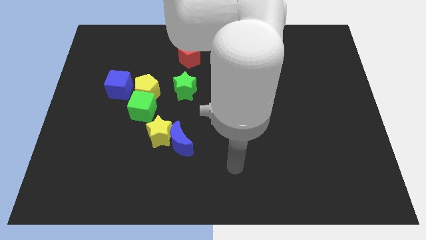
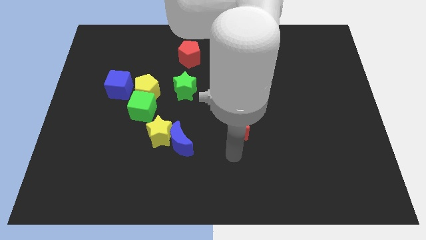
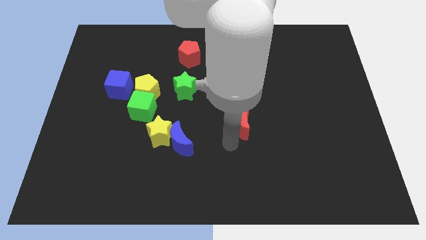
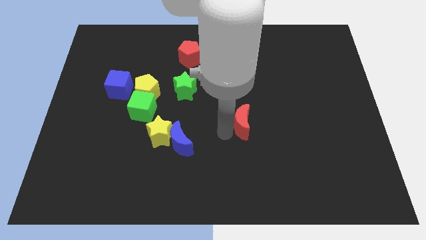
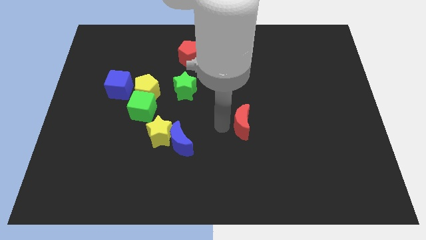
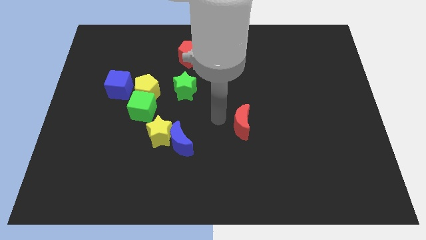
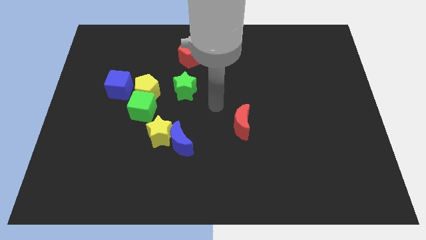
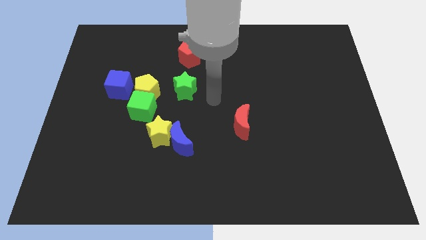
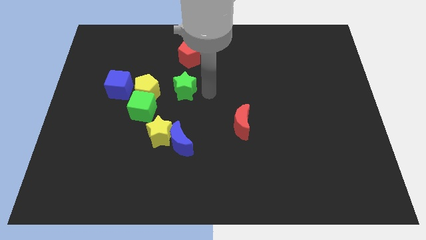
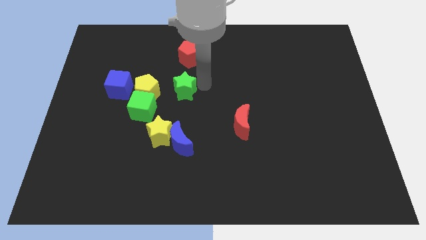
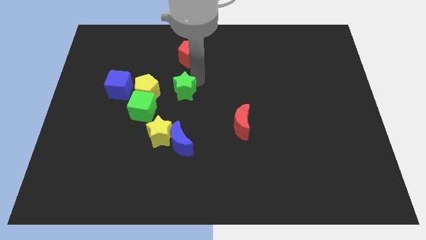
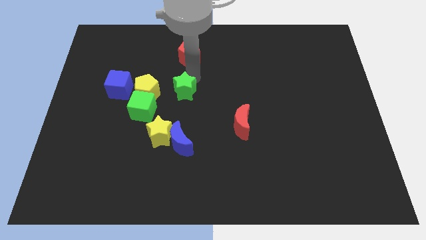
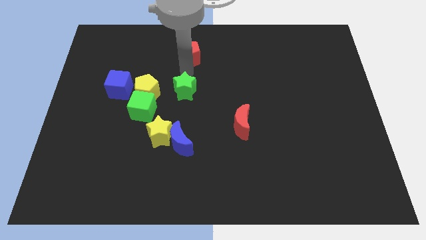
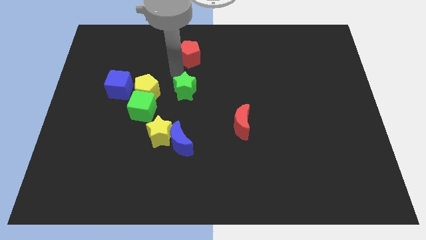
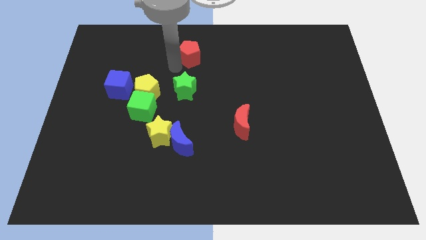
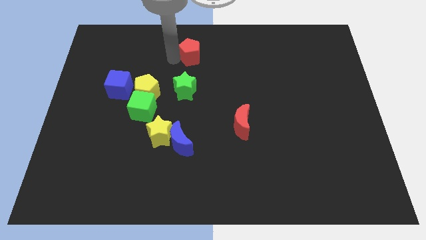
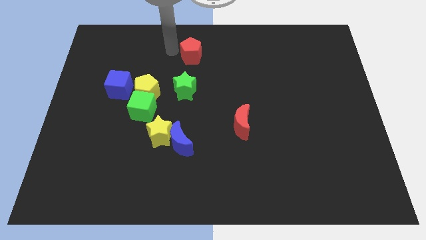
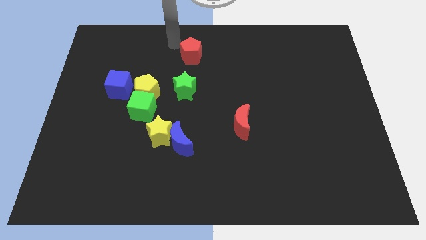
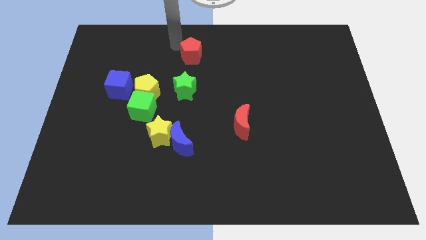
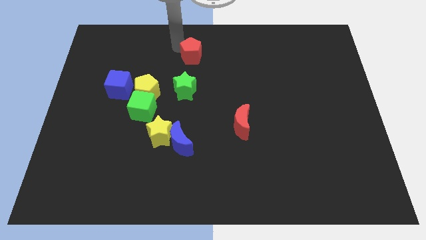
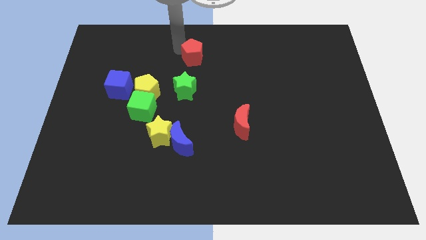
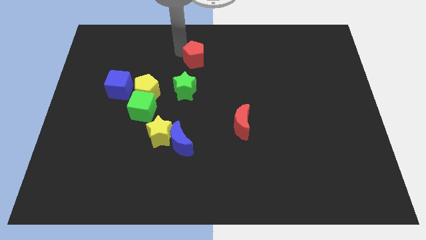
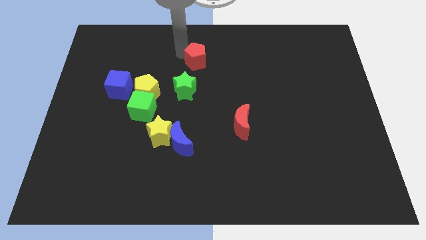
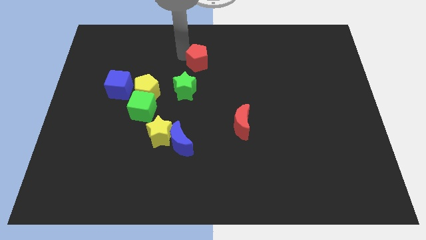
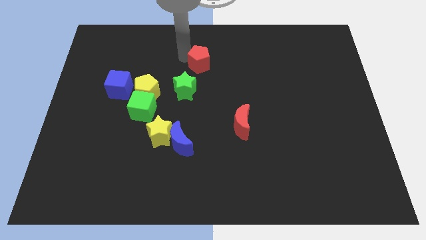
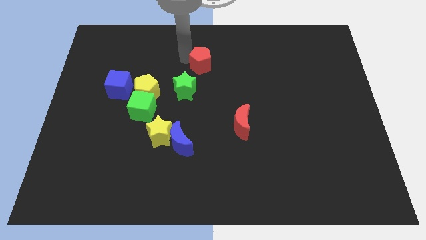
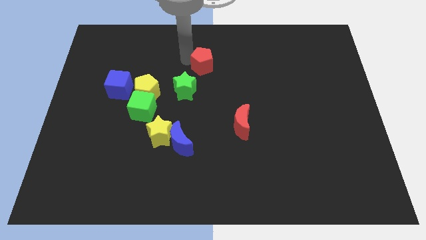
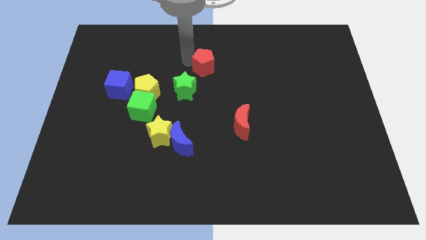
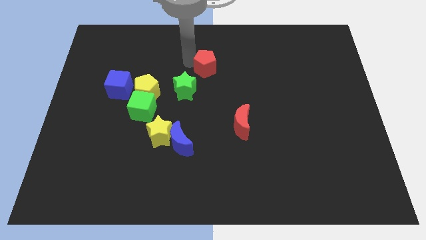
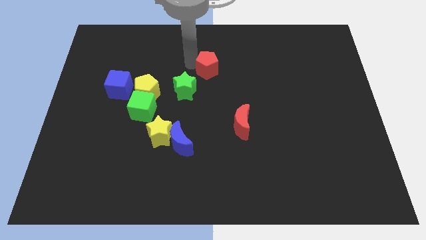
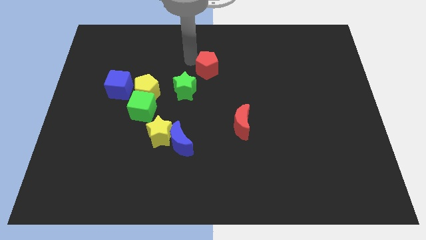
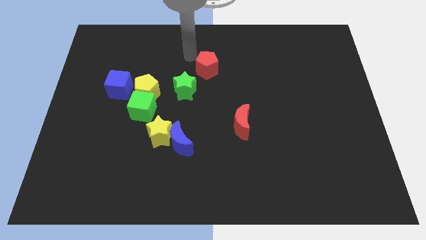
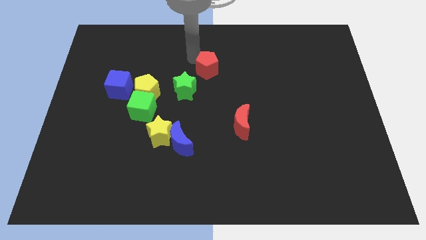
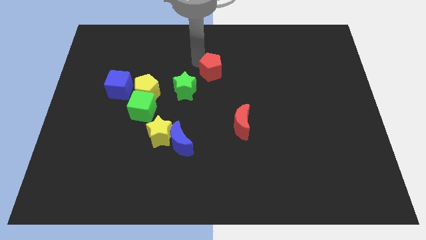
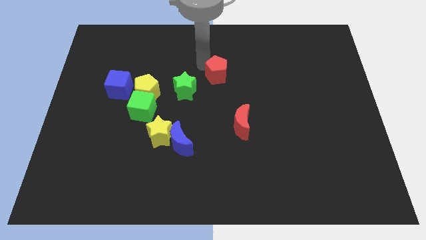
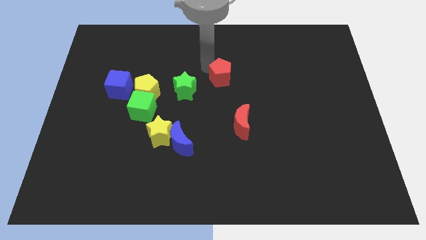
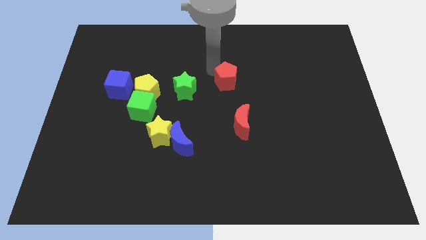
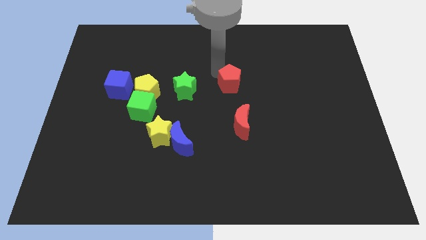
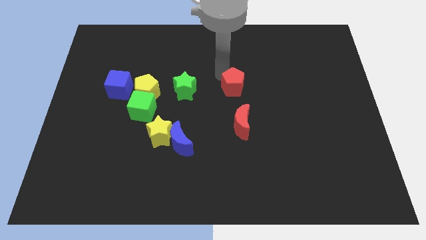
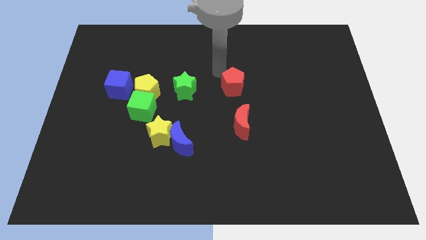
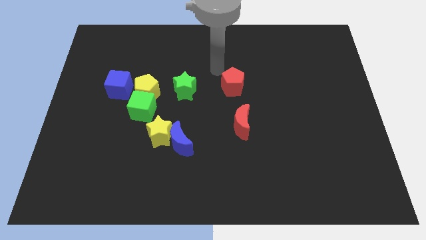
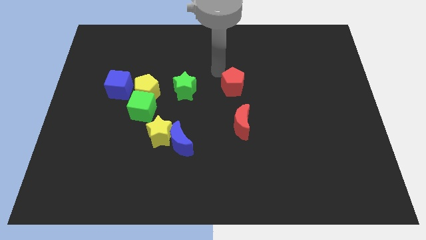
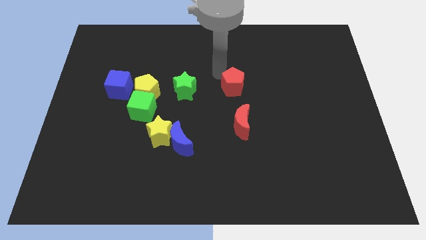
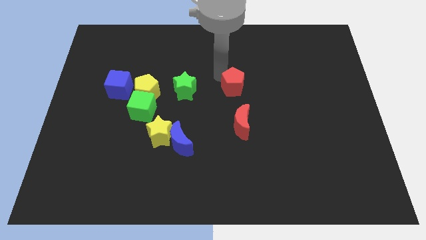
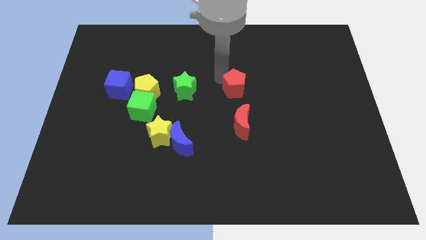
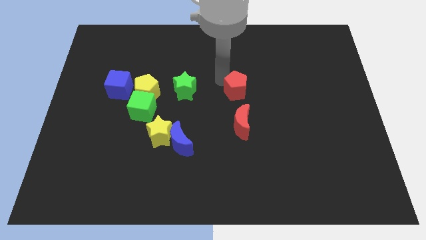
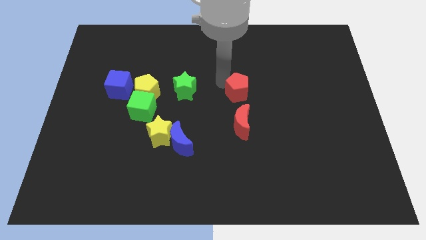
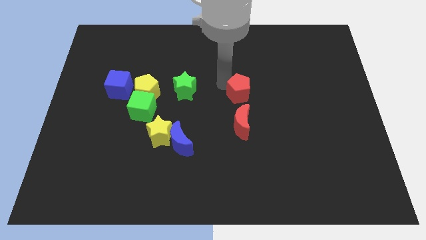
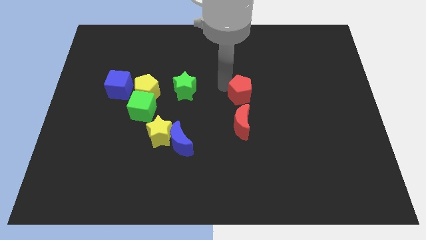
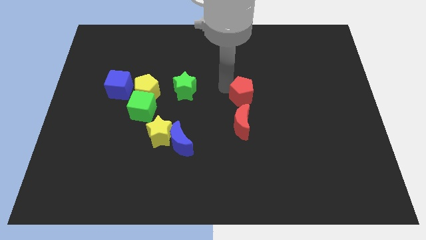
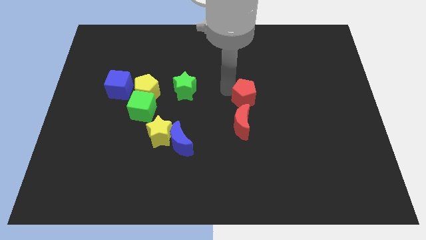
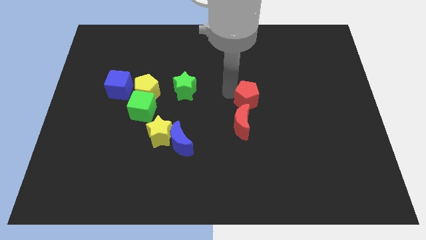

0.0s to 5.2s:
move the red pentagon downwards and right diagonally

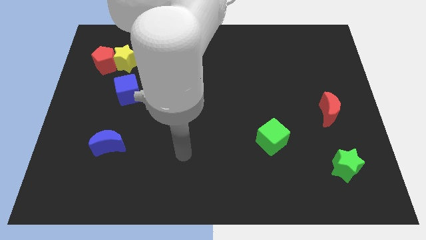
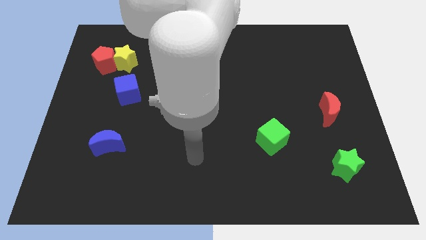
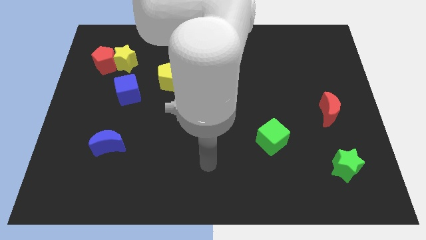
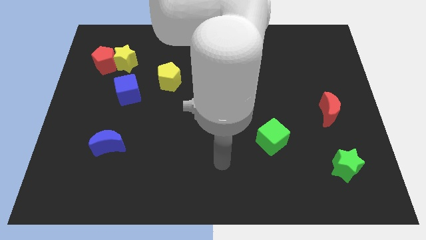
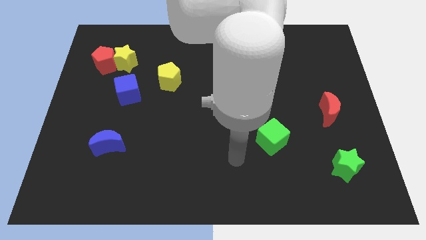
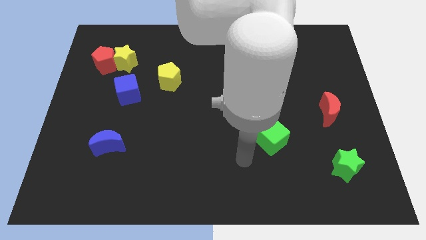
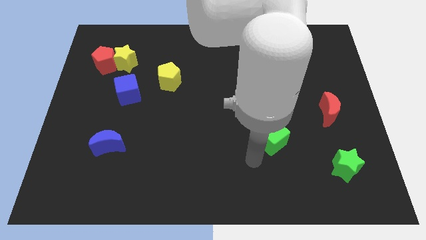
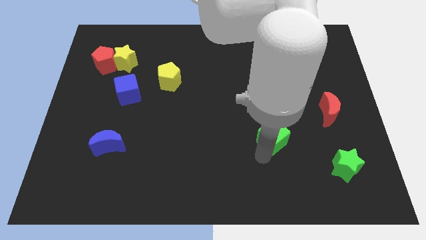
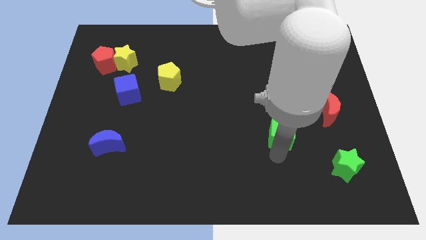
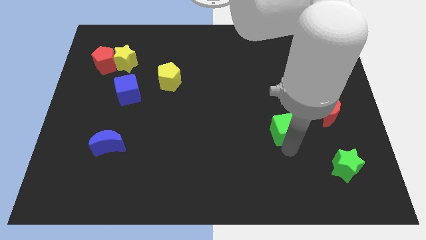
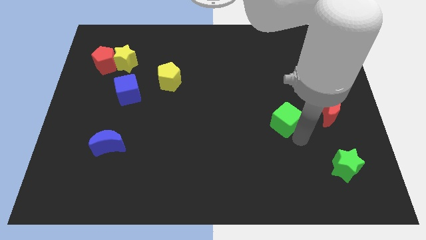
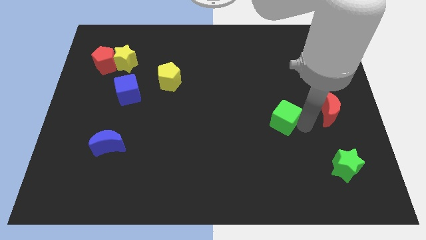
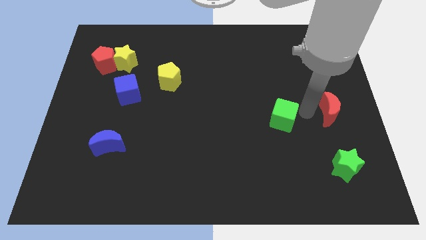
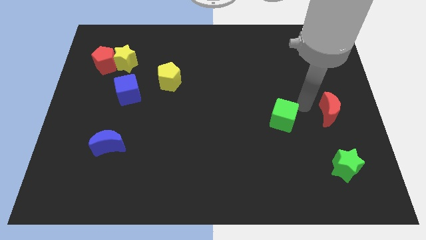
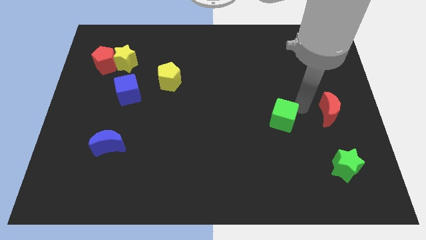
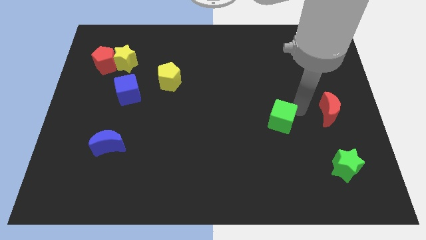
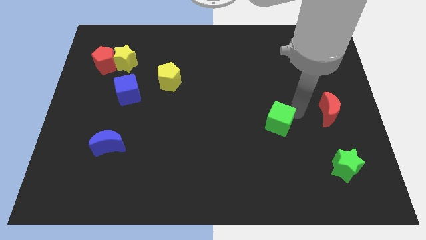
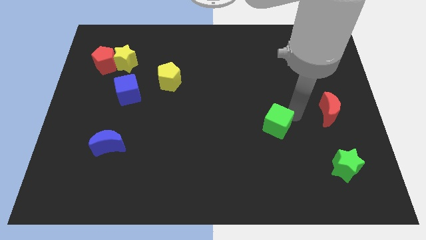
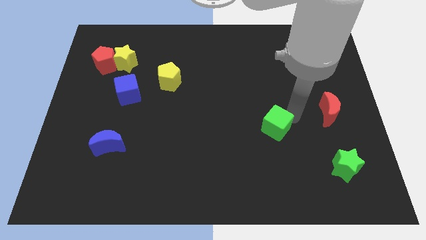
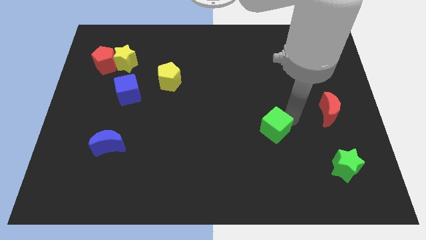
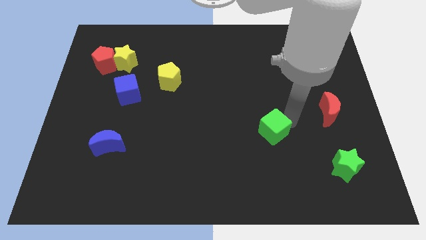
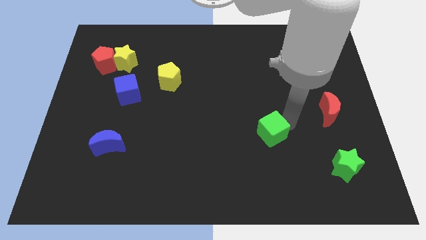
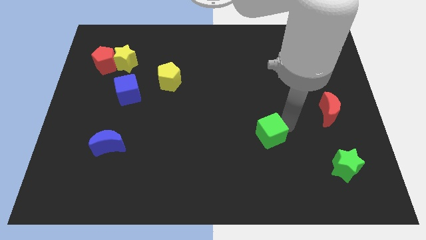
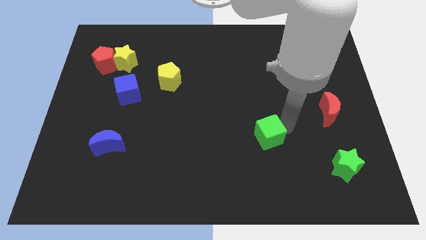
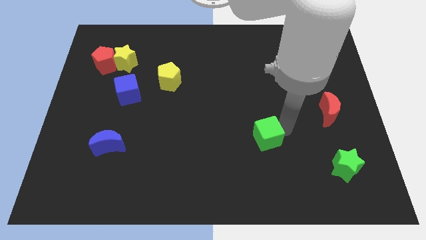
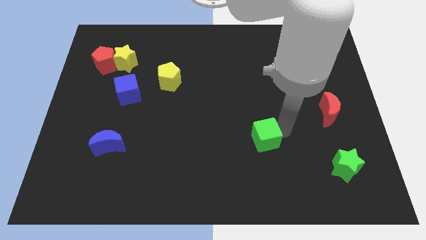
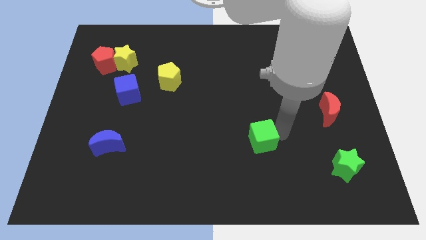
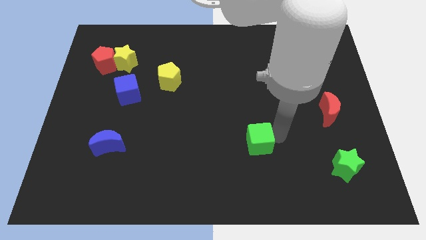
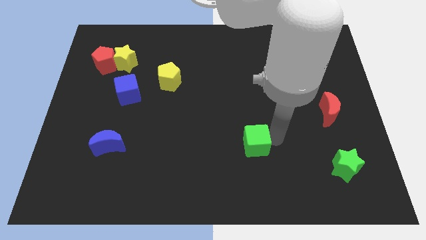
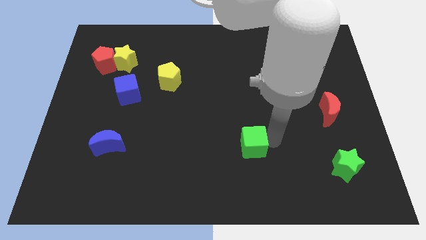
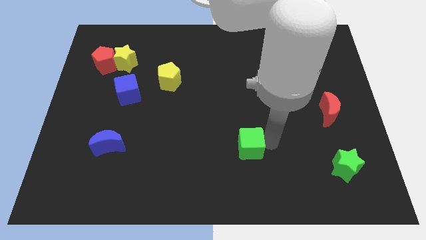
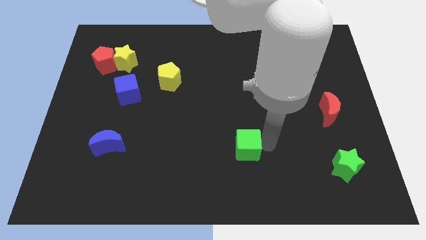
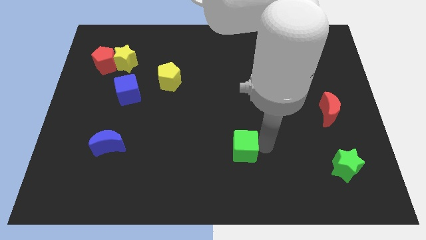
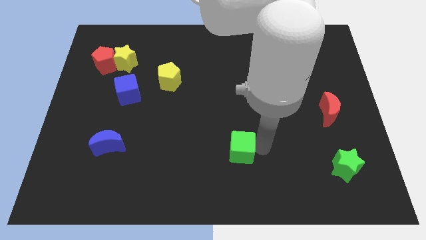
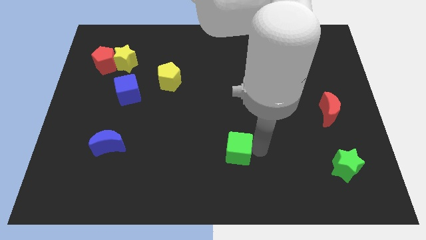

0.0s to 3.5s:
slide the green cube left slightly
